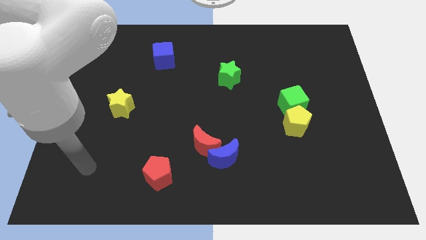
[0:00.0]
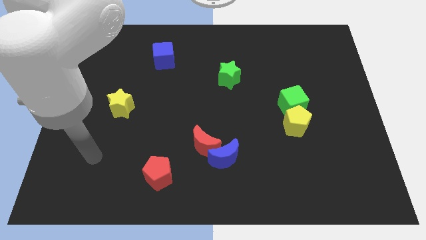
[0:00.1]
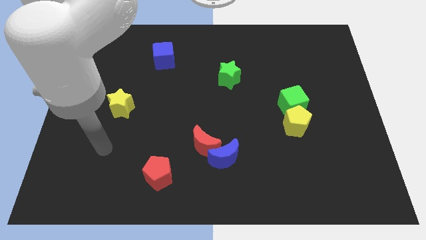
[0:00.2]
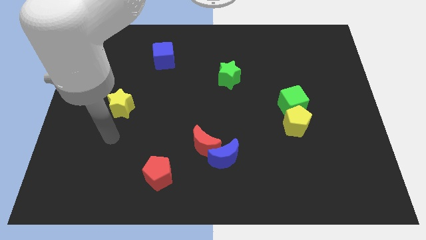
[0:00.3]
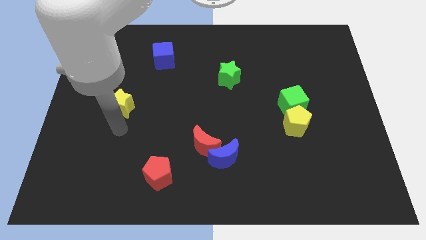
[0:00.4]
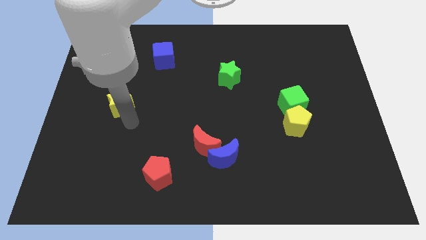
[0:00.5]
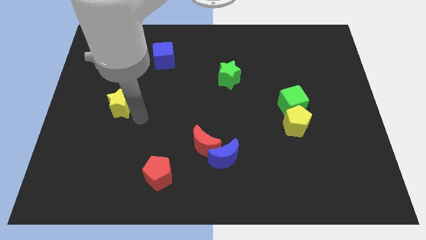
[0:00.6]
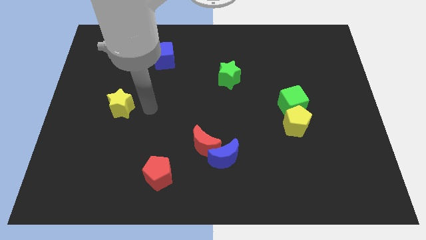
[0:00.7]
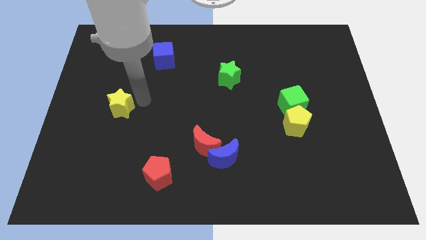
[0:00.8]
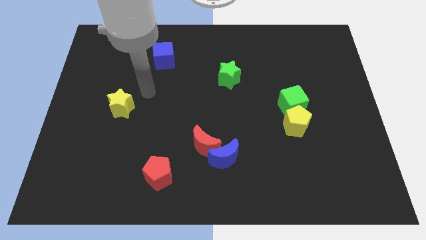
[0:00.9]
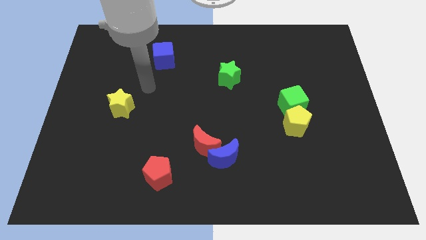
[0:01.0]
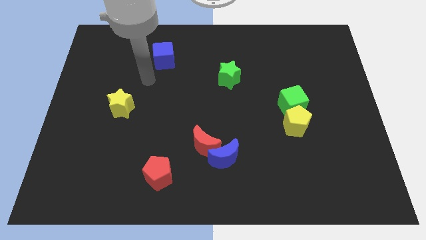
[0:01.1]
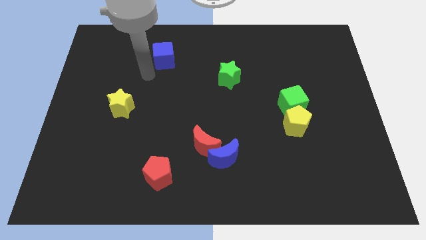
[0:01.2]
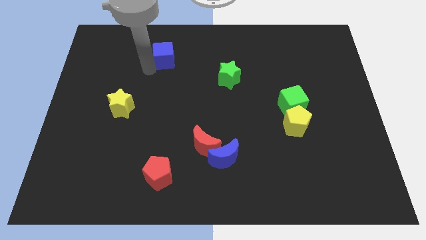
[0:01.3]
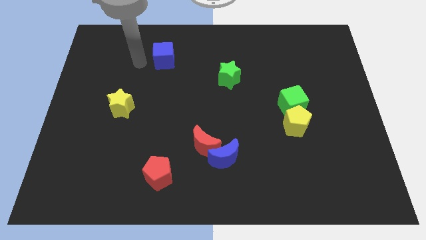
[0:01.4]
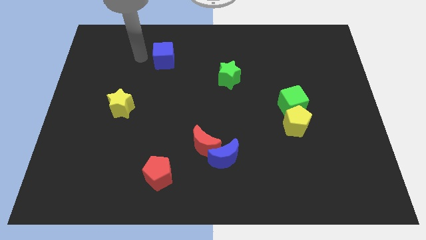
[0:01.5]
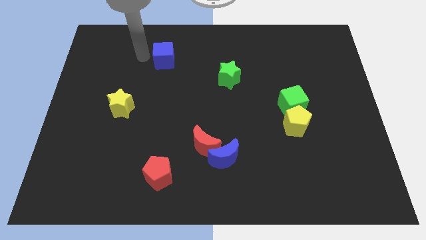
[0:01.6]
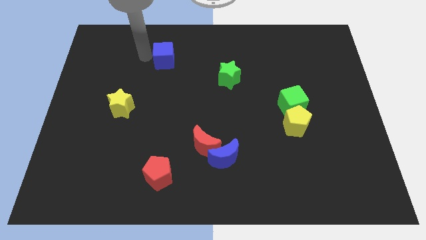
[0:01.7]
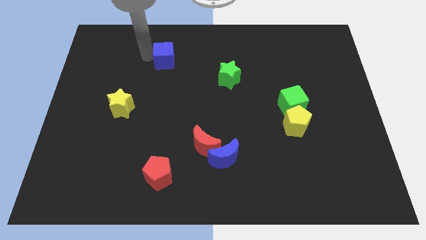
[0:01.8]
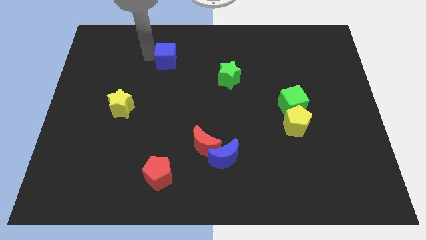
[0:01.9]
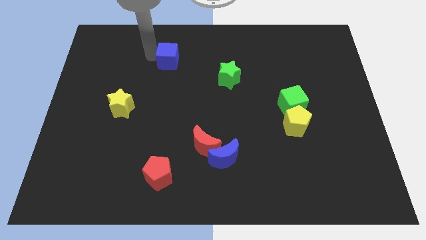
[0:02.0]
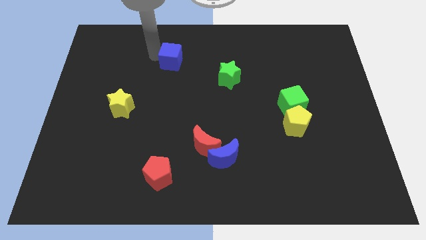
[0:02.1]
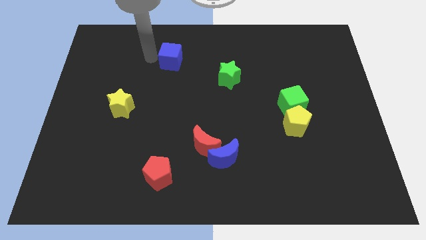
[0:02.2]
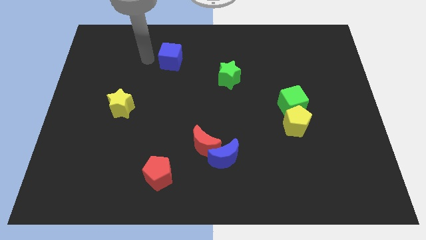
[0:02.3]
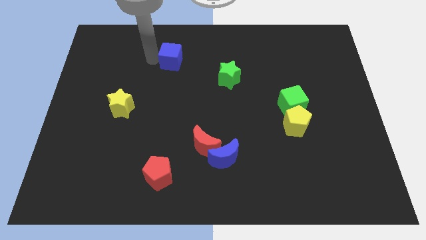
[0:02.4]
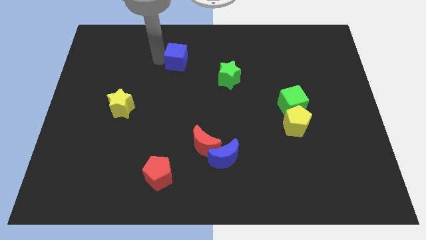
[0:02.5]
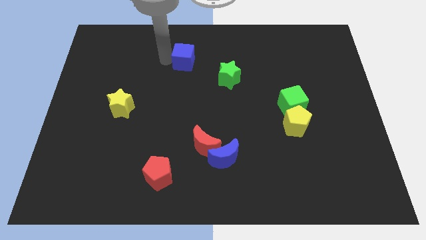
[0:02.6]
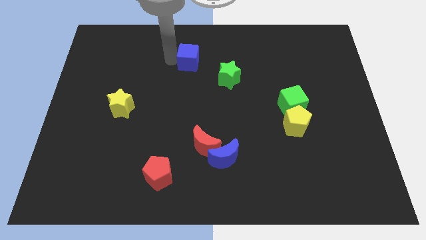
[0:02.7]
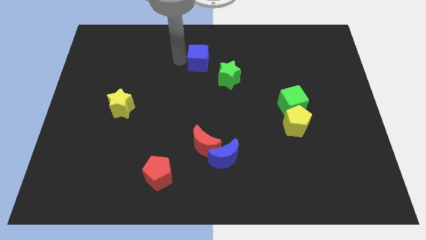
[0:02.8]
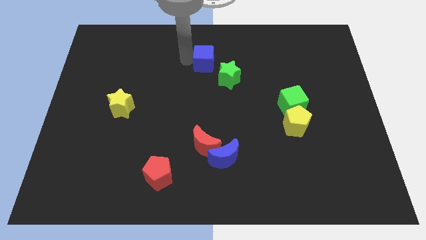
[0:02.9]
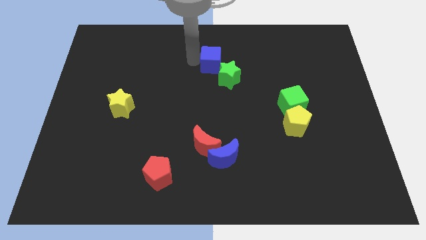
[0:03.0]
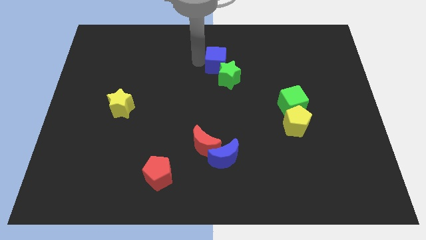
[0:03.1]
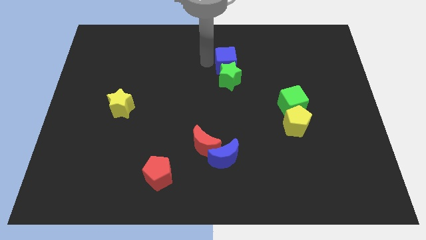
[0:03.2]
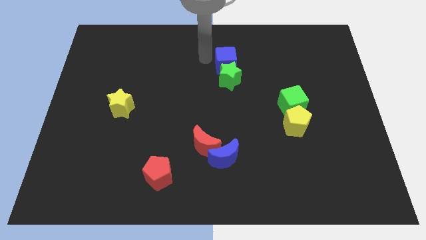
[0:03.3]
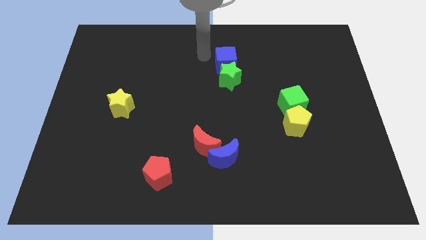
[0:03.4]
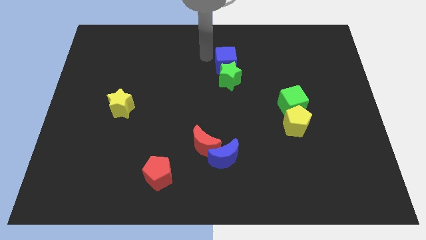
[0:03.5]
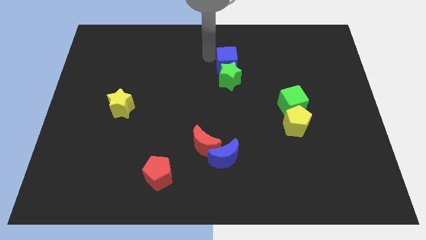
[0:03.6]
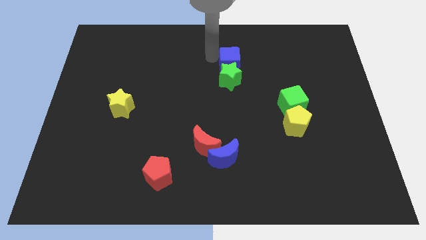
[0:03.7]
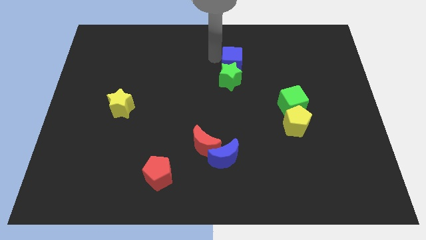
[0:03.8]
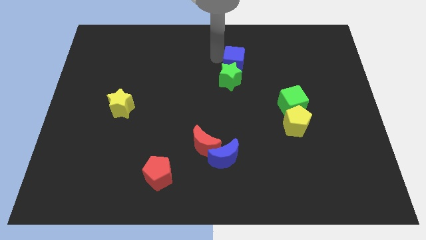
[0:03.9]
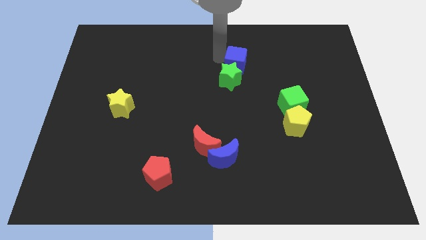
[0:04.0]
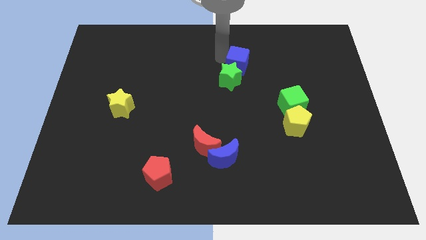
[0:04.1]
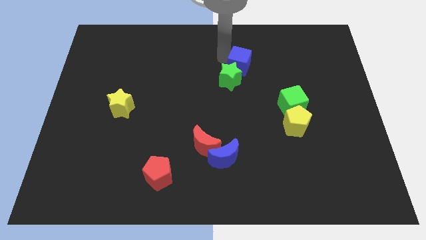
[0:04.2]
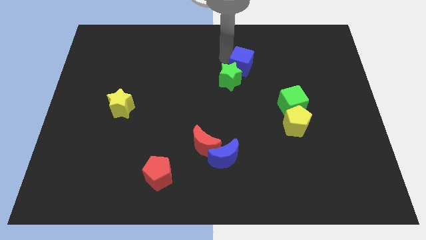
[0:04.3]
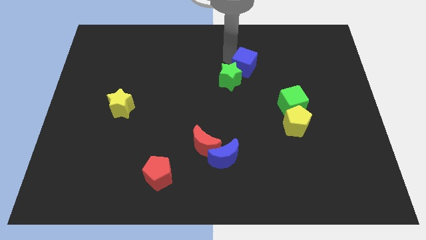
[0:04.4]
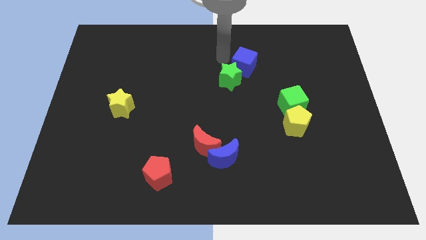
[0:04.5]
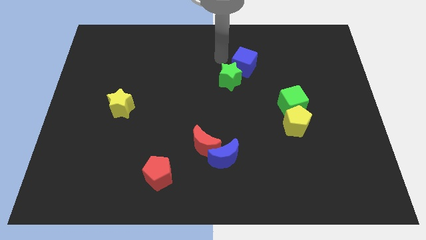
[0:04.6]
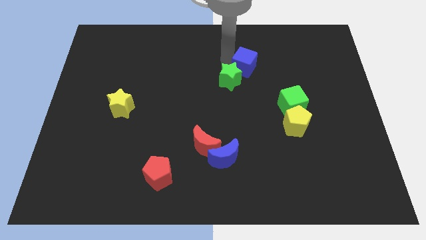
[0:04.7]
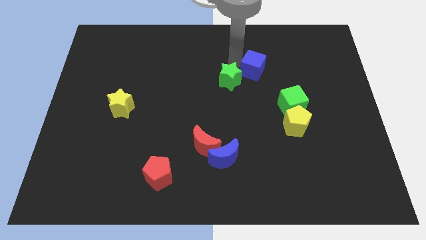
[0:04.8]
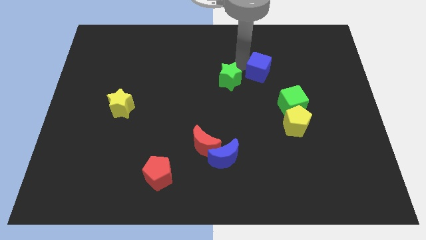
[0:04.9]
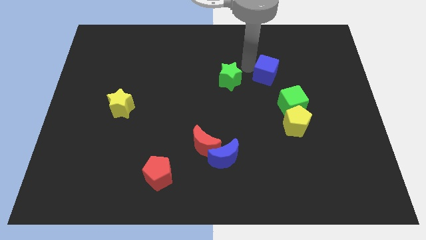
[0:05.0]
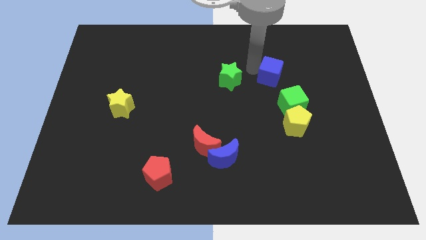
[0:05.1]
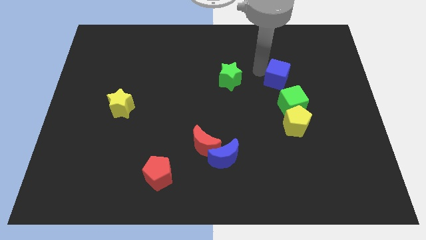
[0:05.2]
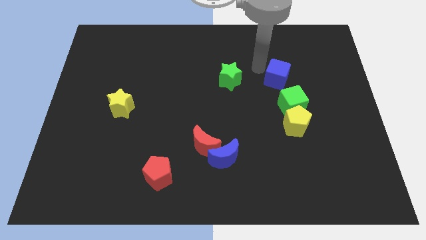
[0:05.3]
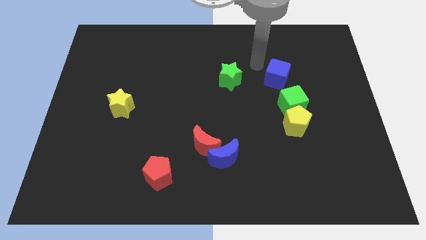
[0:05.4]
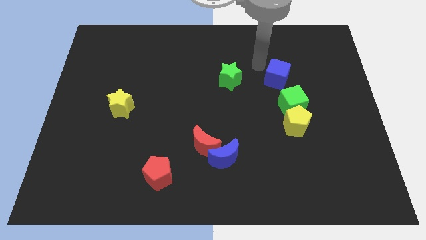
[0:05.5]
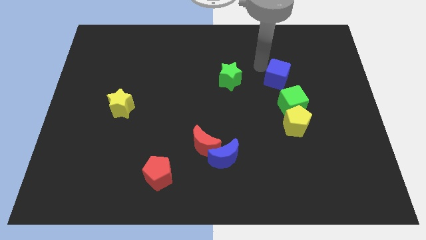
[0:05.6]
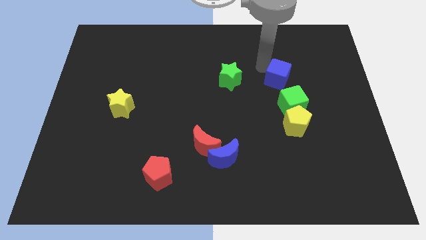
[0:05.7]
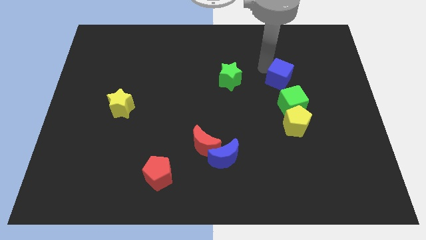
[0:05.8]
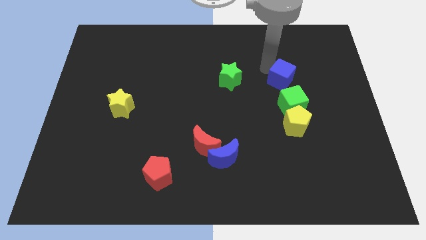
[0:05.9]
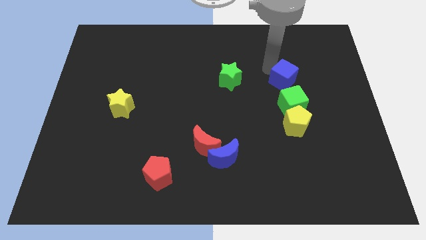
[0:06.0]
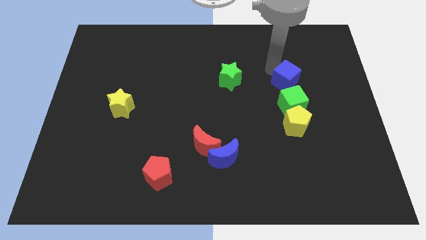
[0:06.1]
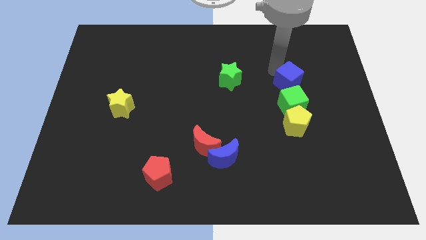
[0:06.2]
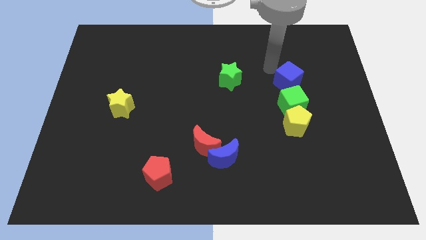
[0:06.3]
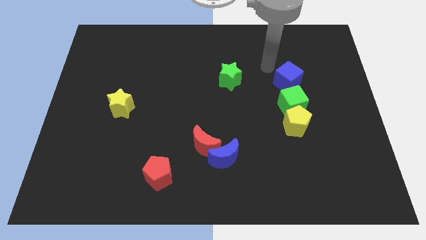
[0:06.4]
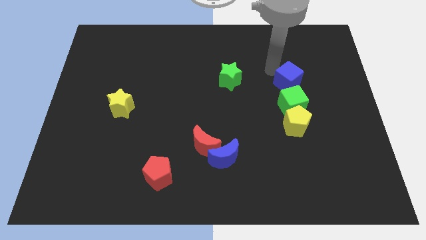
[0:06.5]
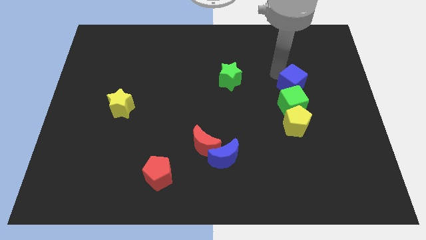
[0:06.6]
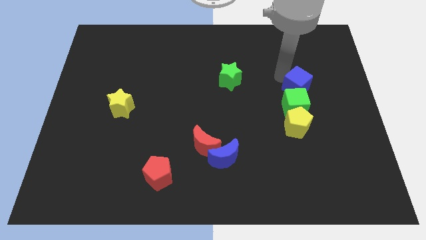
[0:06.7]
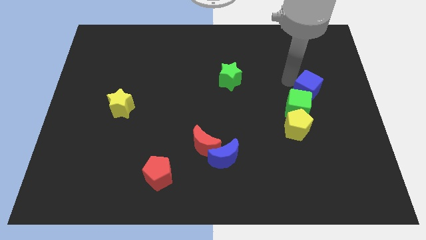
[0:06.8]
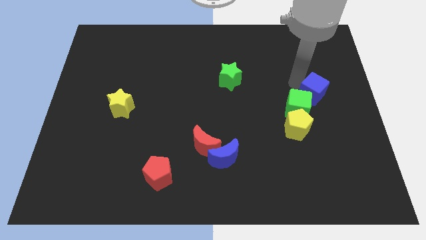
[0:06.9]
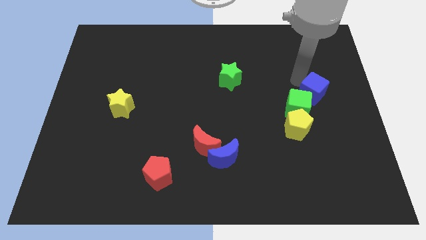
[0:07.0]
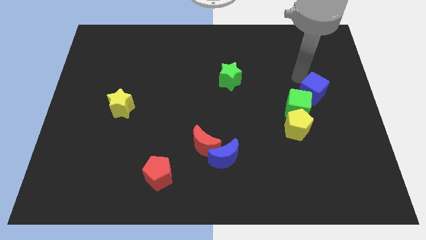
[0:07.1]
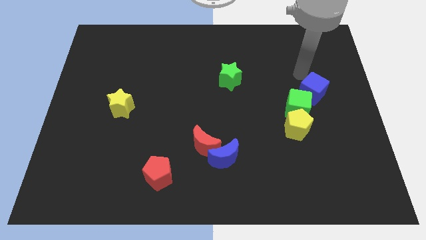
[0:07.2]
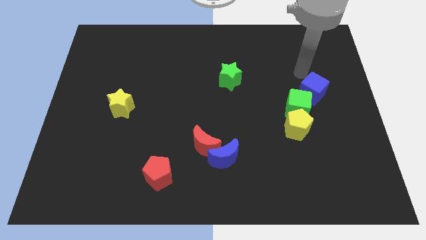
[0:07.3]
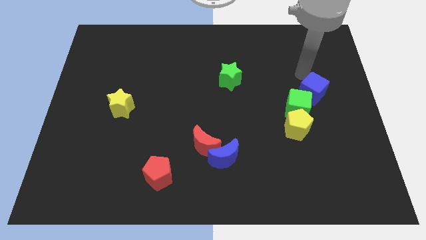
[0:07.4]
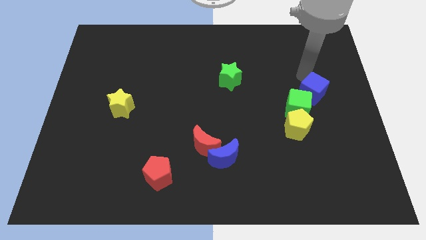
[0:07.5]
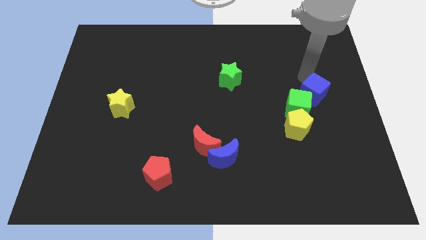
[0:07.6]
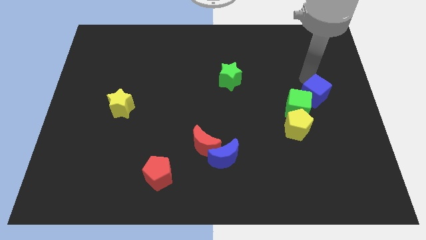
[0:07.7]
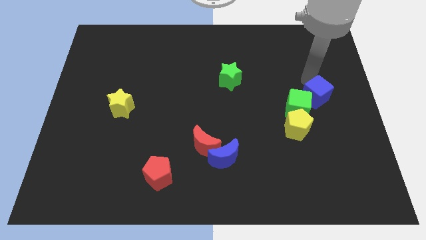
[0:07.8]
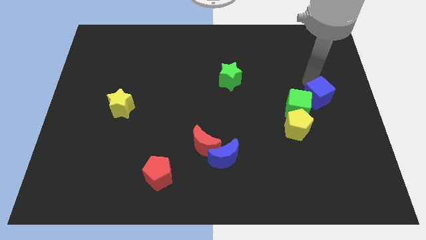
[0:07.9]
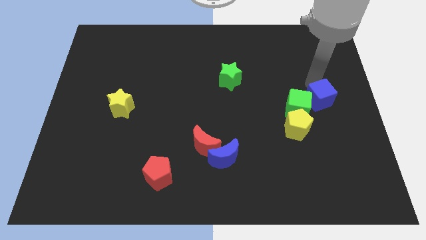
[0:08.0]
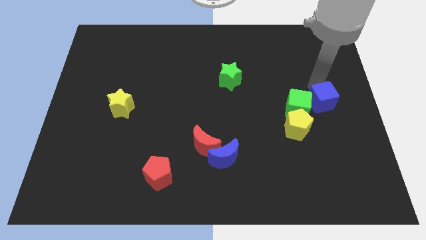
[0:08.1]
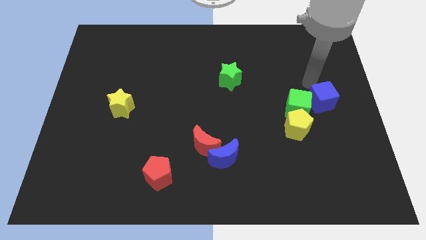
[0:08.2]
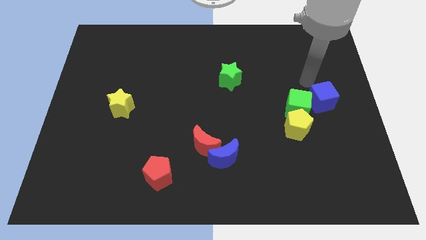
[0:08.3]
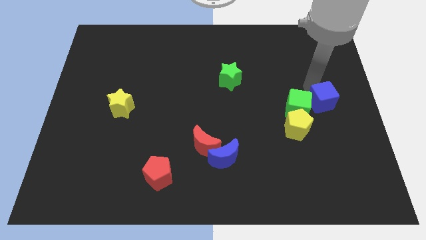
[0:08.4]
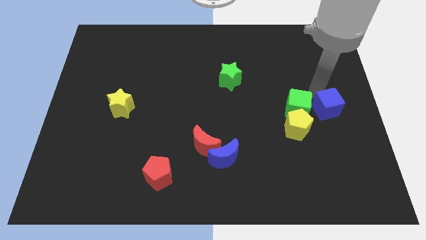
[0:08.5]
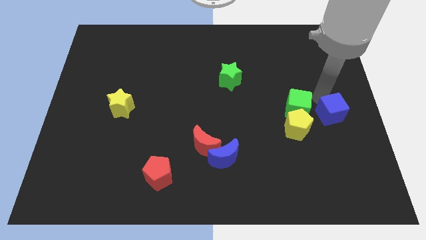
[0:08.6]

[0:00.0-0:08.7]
move the blue cube just right of the yellow pentagon

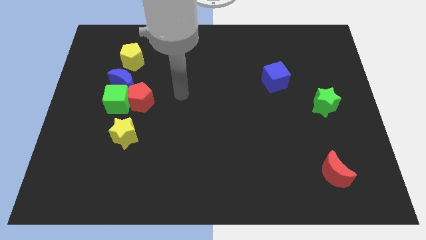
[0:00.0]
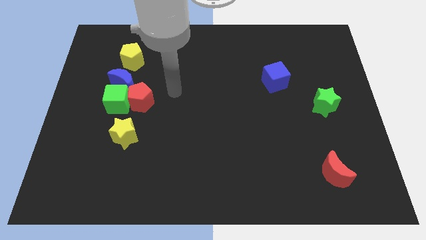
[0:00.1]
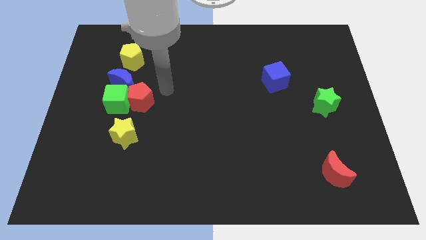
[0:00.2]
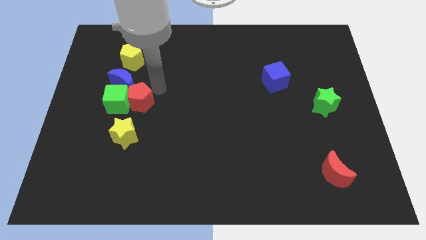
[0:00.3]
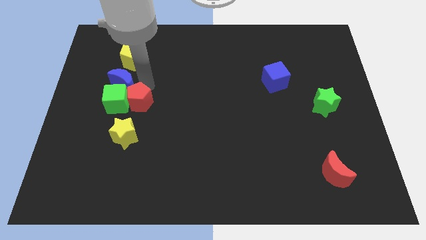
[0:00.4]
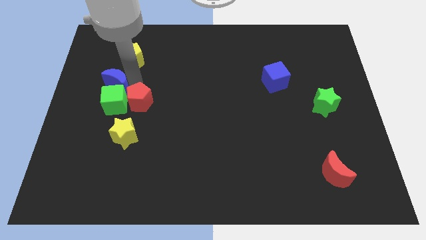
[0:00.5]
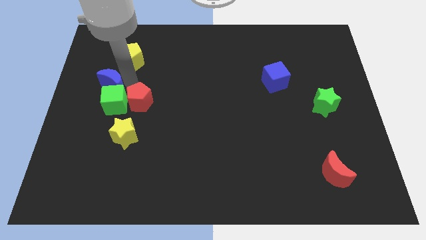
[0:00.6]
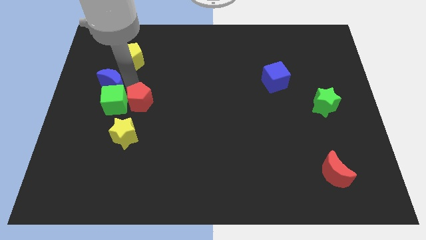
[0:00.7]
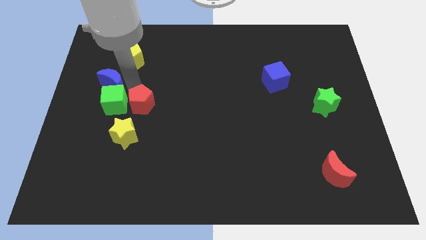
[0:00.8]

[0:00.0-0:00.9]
move the red pentagon to the top right side of the yellow star
